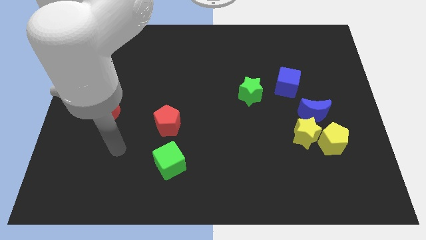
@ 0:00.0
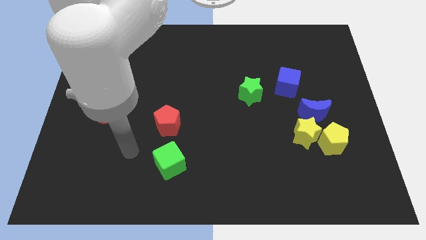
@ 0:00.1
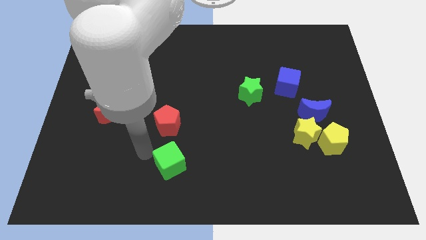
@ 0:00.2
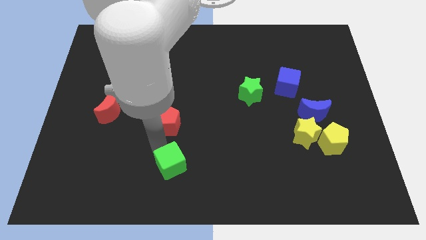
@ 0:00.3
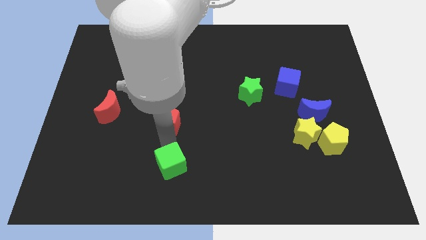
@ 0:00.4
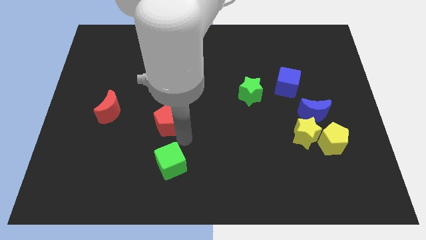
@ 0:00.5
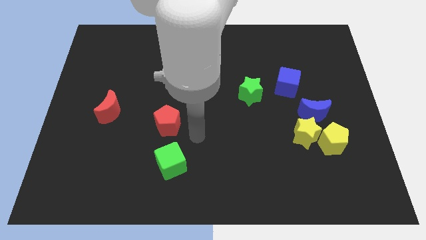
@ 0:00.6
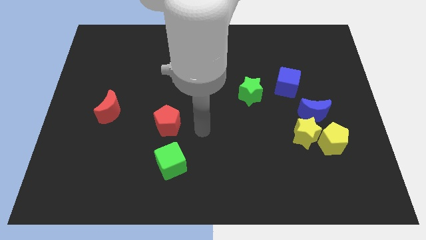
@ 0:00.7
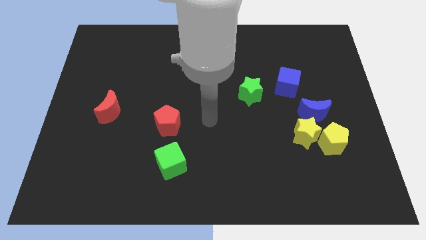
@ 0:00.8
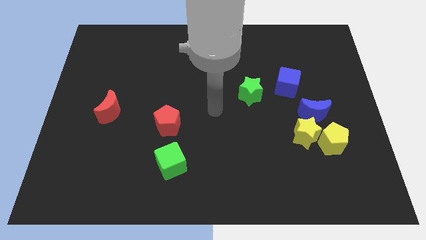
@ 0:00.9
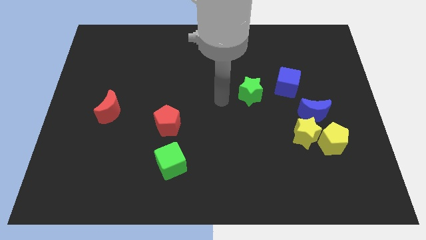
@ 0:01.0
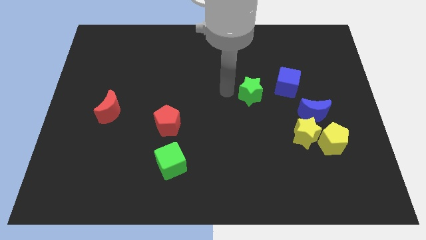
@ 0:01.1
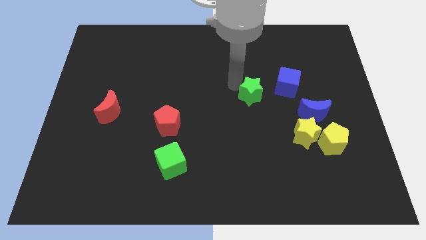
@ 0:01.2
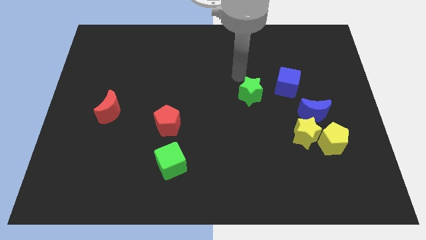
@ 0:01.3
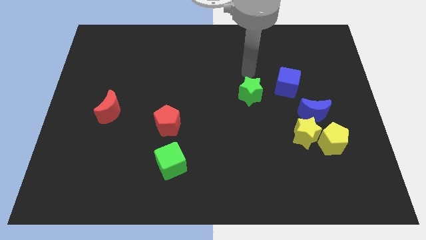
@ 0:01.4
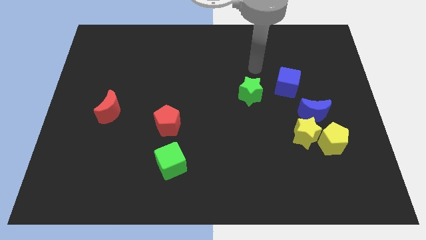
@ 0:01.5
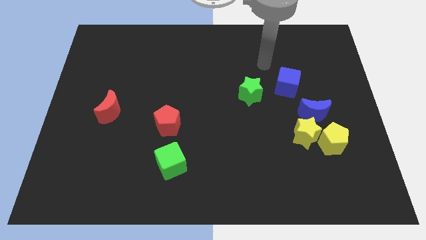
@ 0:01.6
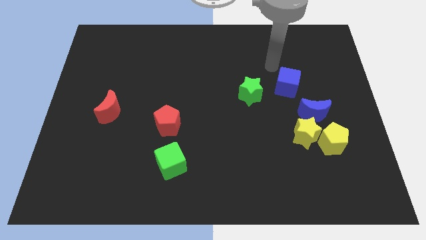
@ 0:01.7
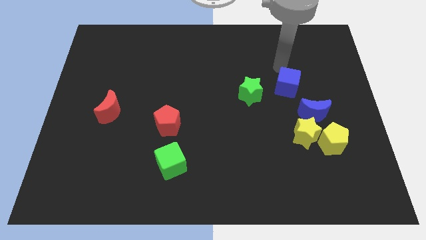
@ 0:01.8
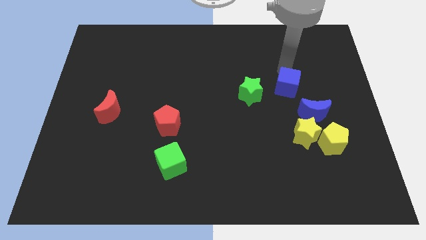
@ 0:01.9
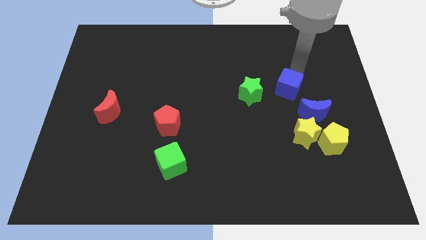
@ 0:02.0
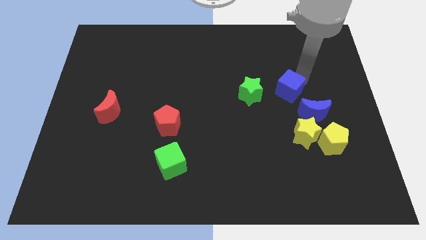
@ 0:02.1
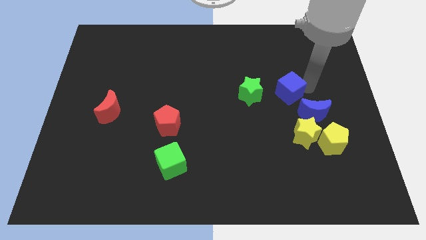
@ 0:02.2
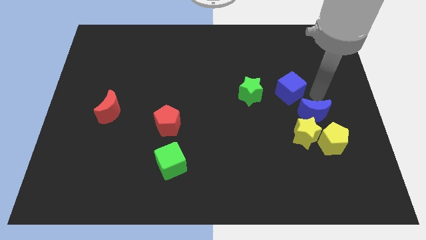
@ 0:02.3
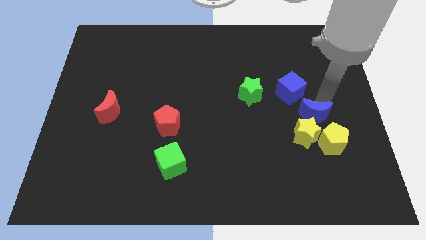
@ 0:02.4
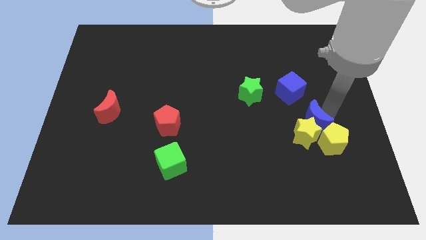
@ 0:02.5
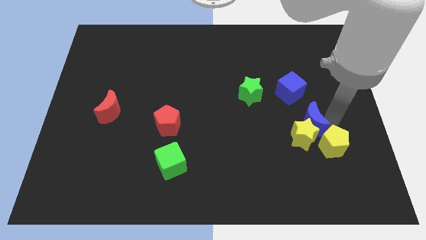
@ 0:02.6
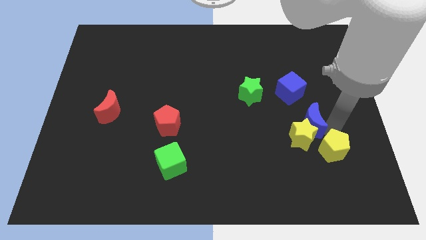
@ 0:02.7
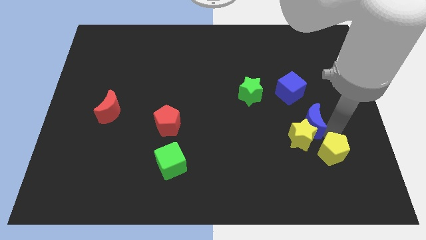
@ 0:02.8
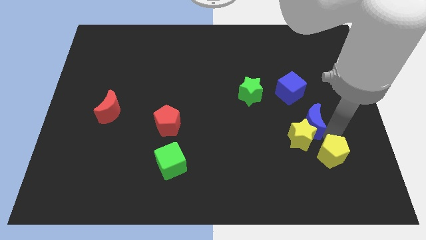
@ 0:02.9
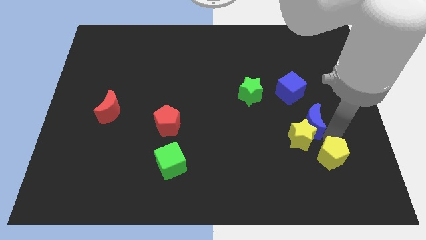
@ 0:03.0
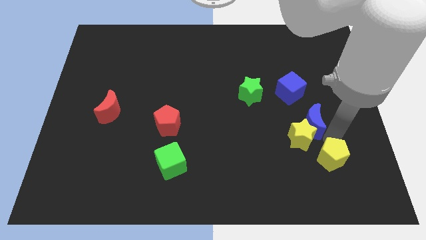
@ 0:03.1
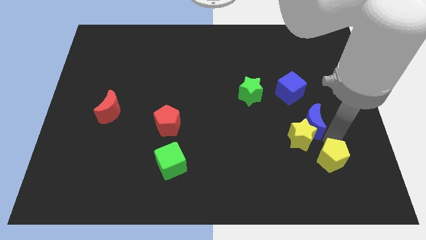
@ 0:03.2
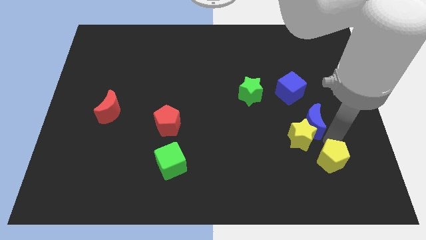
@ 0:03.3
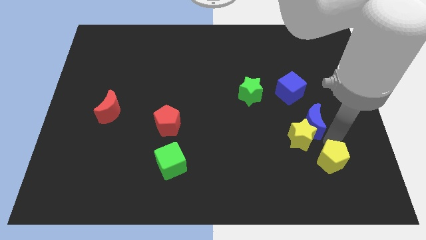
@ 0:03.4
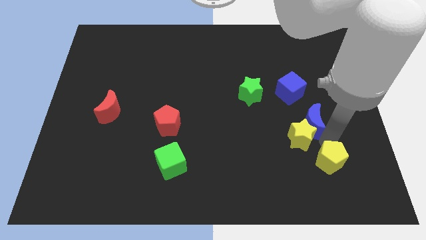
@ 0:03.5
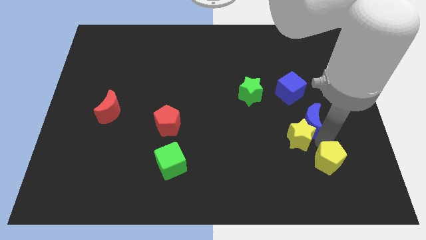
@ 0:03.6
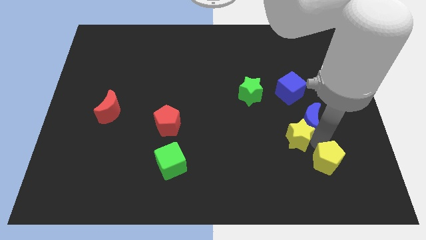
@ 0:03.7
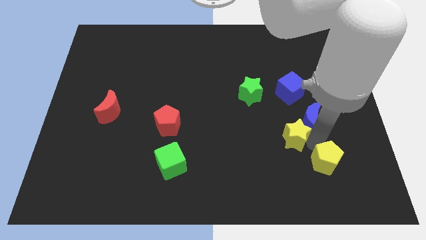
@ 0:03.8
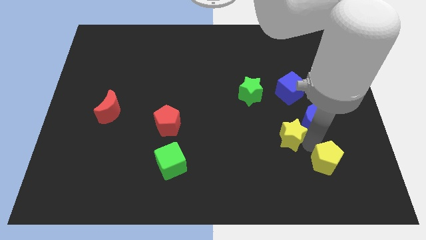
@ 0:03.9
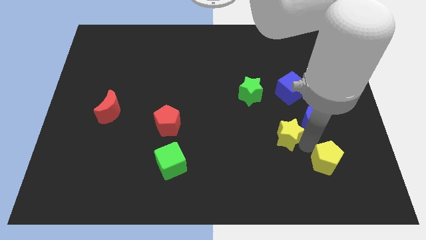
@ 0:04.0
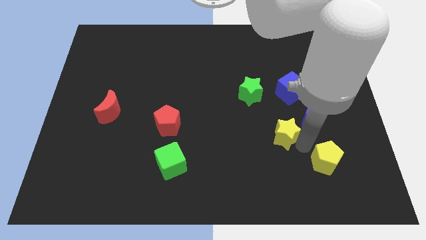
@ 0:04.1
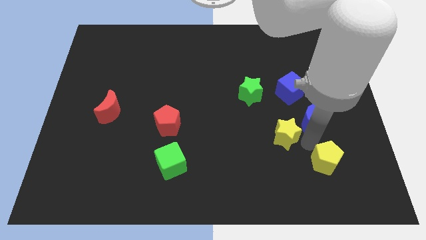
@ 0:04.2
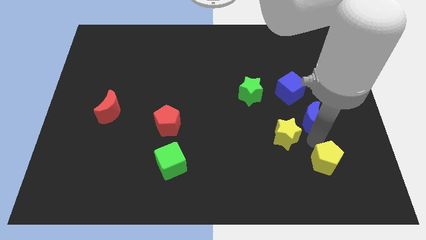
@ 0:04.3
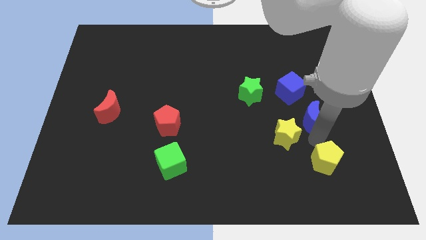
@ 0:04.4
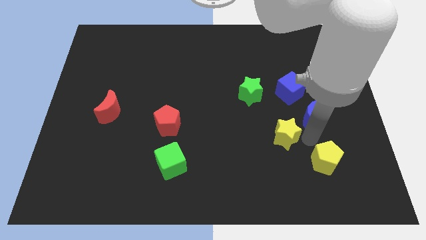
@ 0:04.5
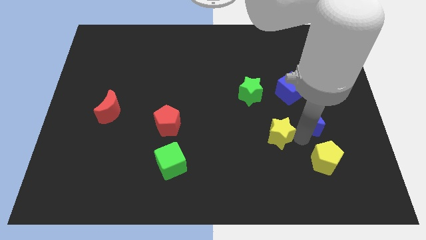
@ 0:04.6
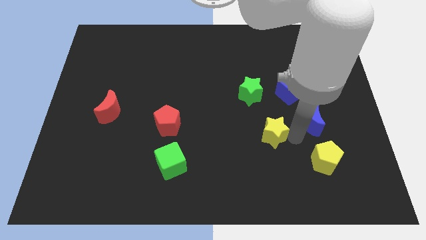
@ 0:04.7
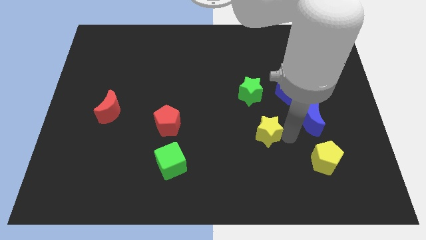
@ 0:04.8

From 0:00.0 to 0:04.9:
separate the yellow star from the yellow pentagon and blue moon

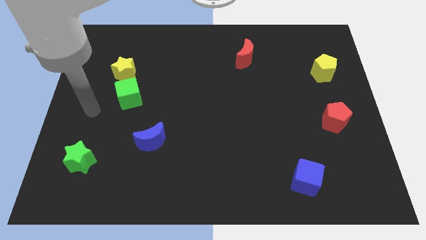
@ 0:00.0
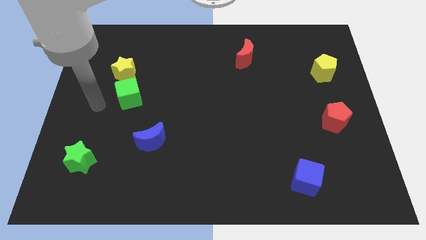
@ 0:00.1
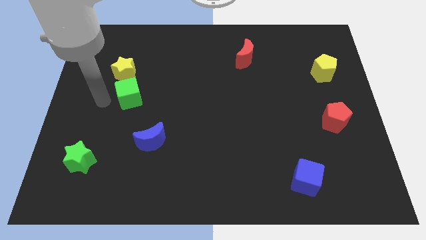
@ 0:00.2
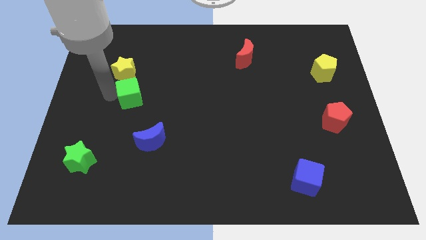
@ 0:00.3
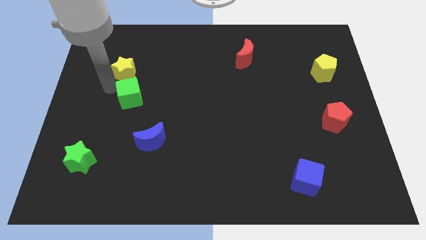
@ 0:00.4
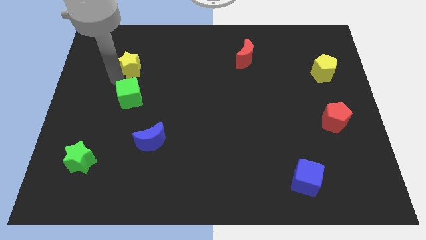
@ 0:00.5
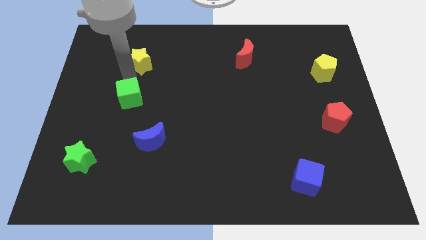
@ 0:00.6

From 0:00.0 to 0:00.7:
separate the green cube from the yellow star

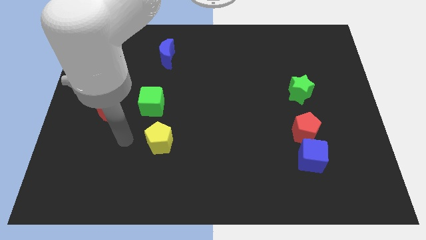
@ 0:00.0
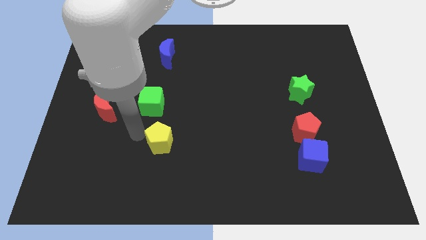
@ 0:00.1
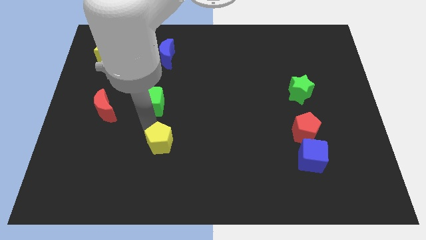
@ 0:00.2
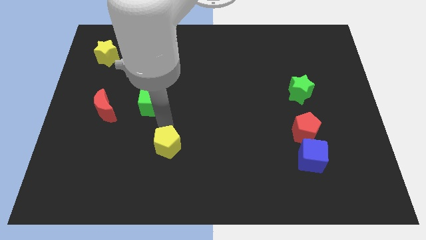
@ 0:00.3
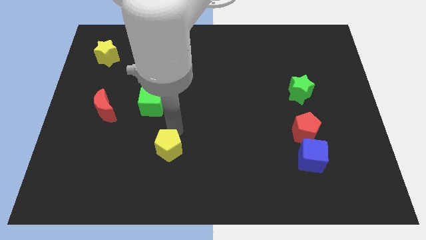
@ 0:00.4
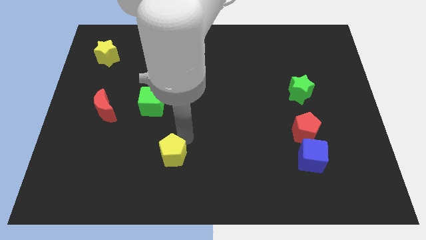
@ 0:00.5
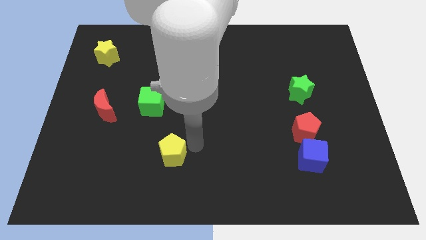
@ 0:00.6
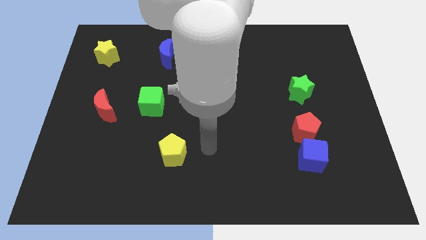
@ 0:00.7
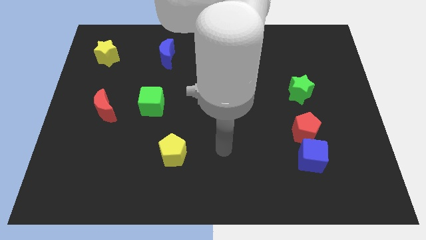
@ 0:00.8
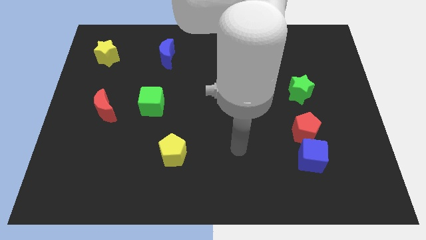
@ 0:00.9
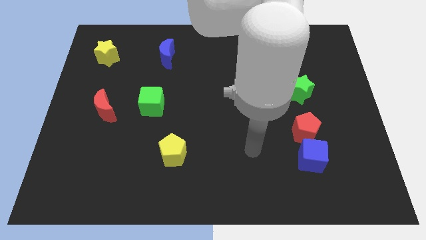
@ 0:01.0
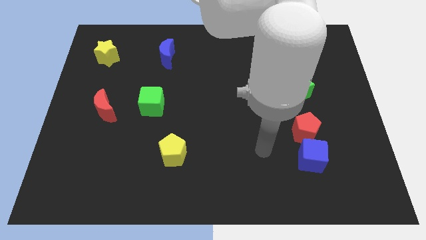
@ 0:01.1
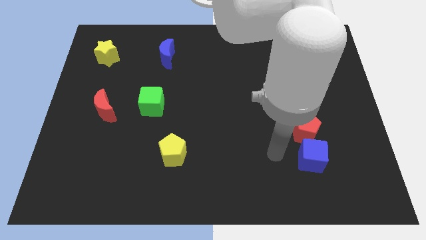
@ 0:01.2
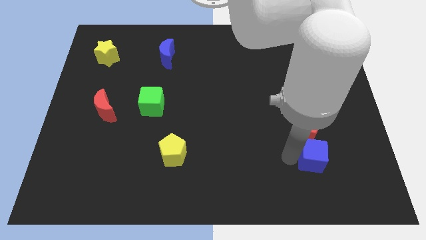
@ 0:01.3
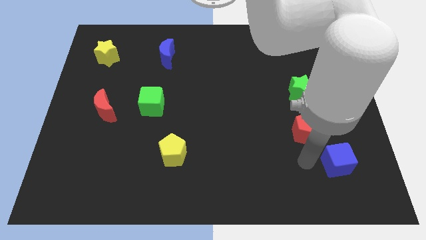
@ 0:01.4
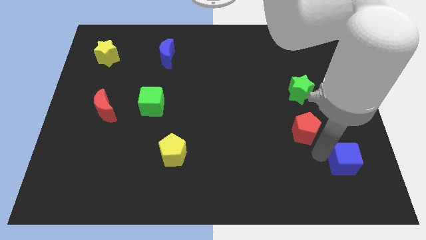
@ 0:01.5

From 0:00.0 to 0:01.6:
pull the red pentagon apart from the blue cube

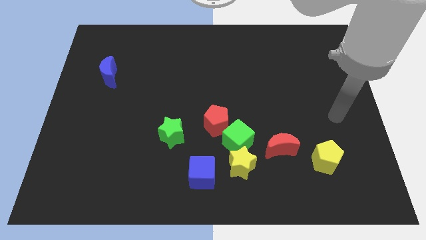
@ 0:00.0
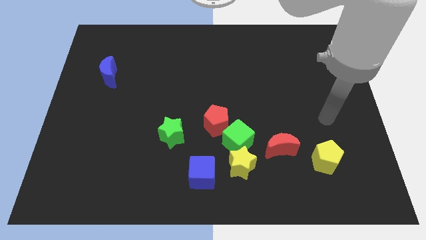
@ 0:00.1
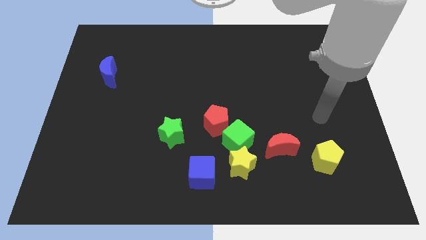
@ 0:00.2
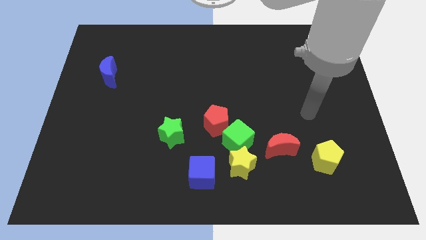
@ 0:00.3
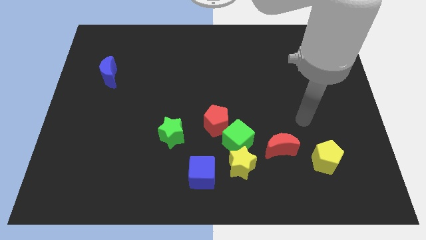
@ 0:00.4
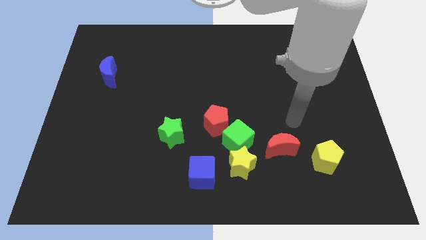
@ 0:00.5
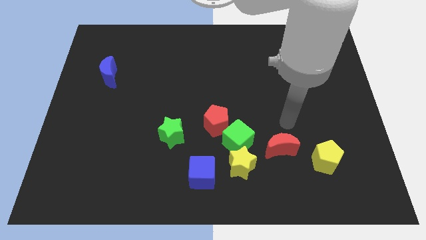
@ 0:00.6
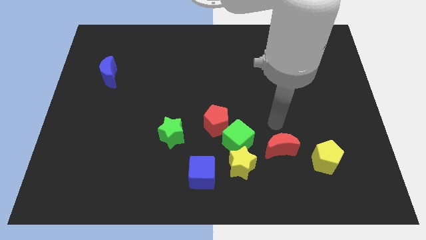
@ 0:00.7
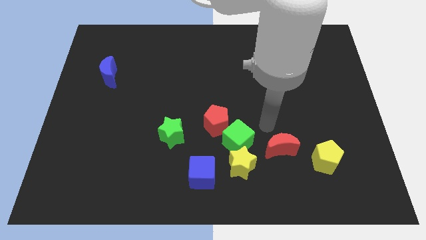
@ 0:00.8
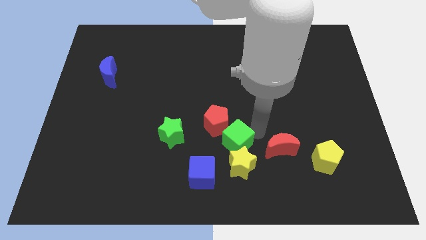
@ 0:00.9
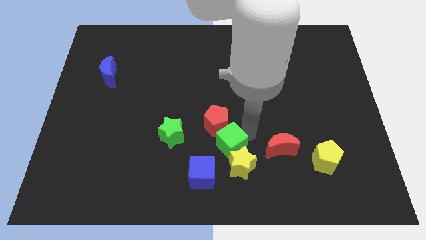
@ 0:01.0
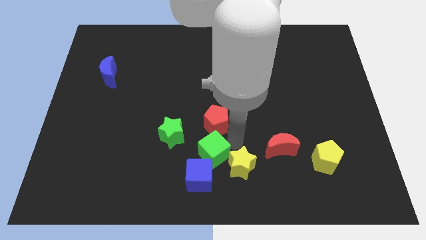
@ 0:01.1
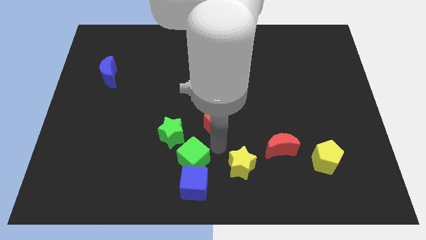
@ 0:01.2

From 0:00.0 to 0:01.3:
separate the red pentagon from the green cube

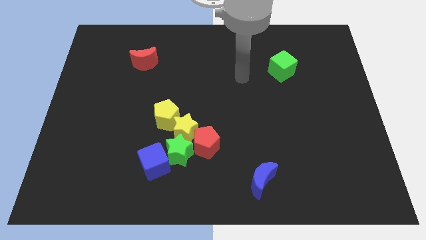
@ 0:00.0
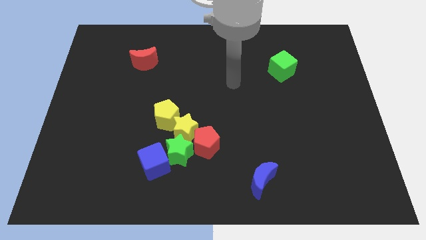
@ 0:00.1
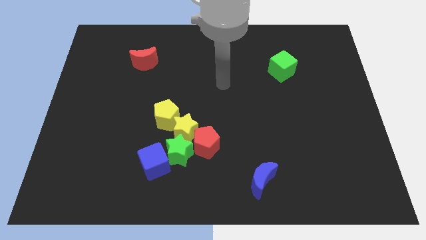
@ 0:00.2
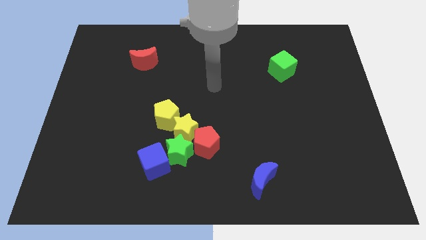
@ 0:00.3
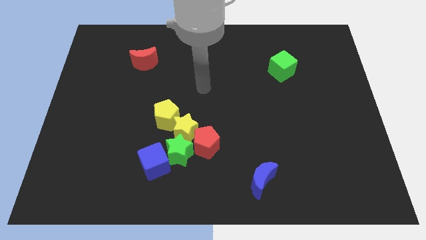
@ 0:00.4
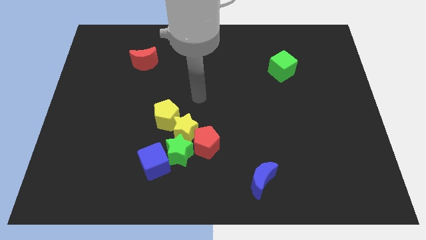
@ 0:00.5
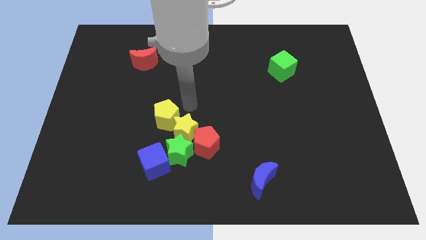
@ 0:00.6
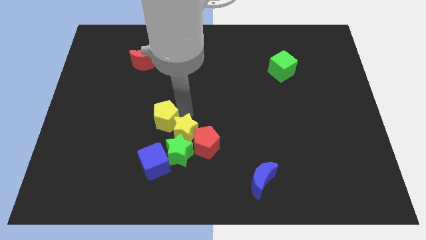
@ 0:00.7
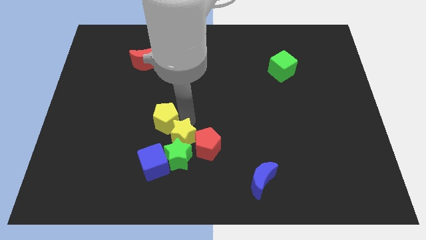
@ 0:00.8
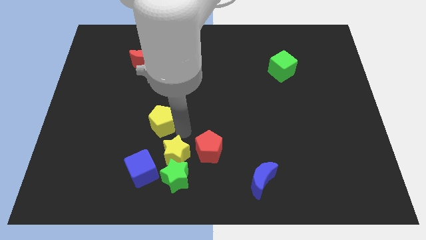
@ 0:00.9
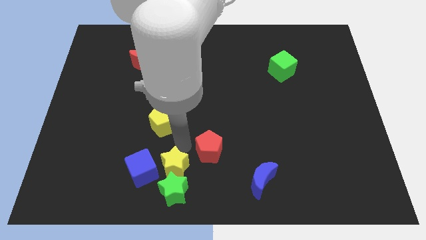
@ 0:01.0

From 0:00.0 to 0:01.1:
pull the red pentagon apart from the yellow star and green star
